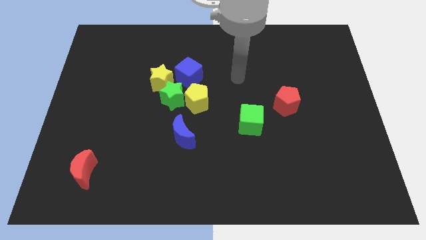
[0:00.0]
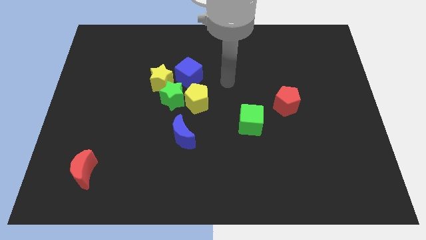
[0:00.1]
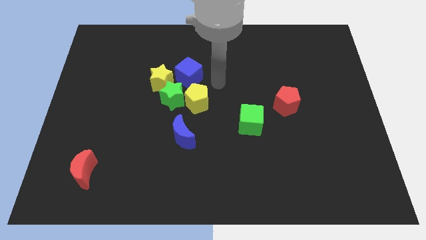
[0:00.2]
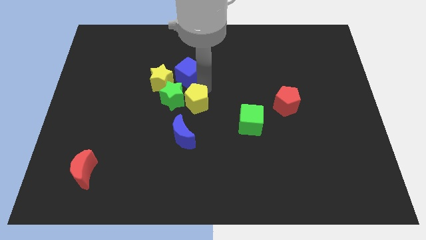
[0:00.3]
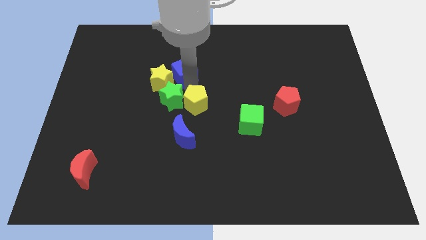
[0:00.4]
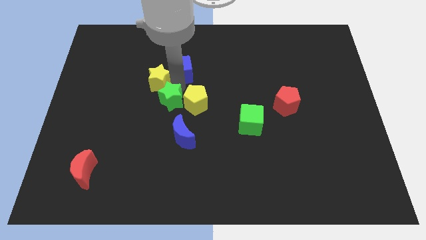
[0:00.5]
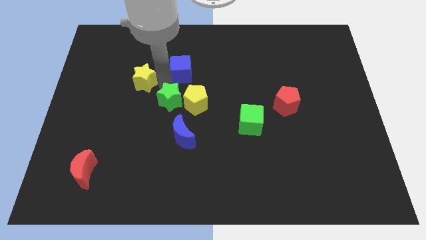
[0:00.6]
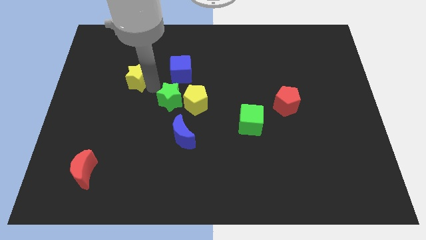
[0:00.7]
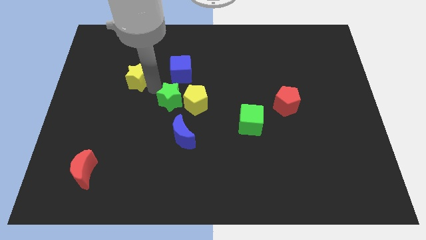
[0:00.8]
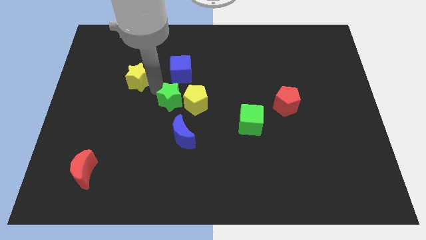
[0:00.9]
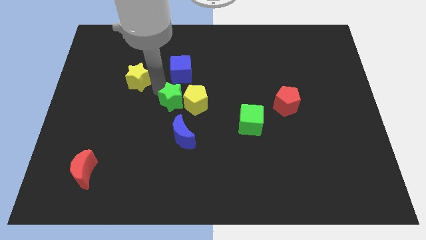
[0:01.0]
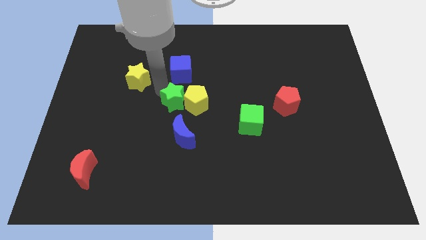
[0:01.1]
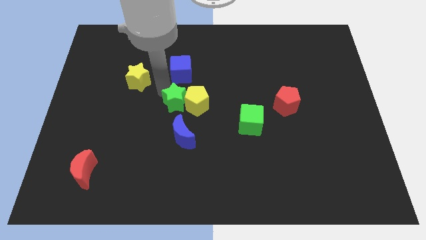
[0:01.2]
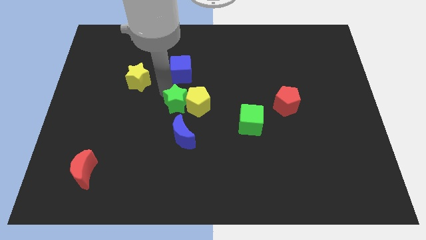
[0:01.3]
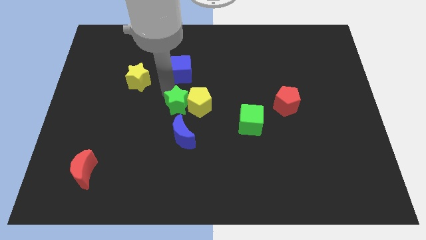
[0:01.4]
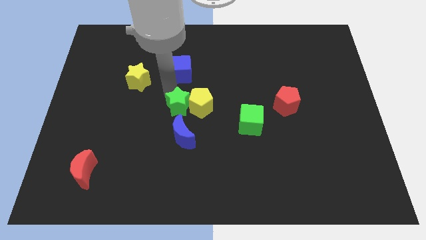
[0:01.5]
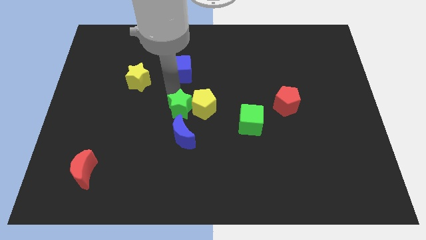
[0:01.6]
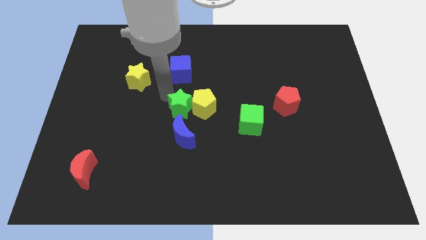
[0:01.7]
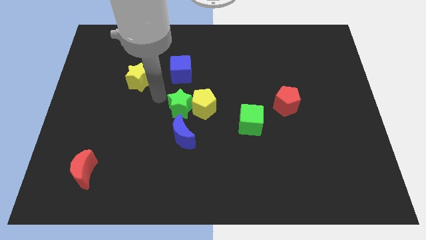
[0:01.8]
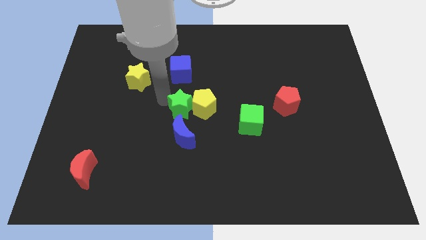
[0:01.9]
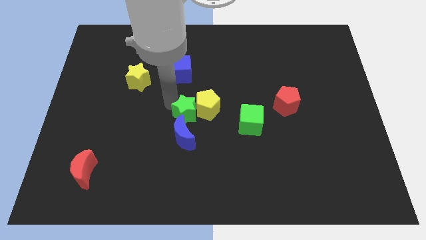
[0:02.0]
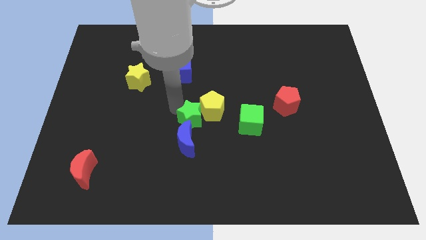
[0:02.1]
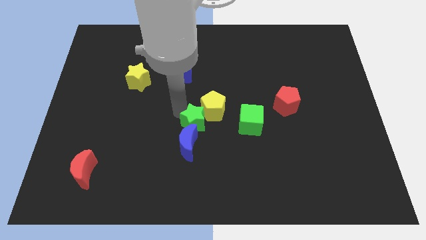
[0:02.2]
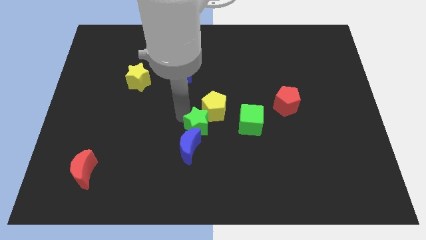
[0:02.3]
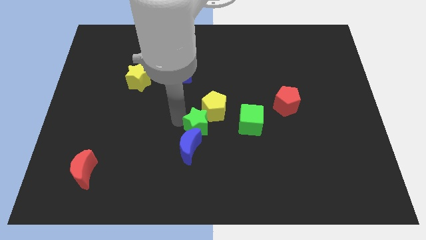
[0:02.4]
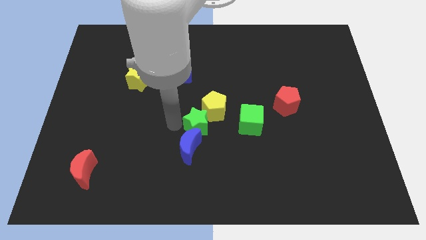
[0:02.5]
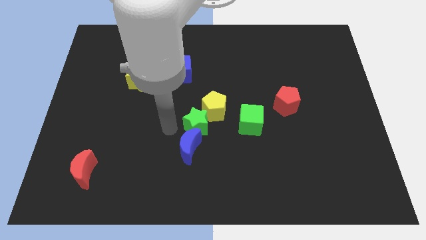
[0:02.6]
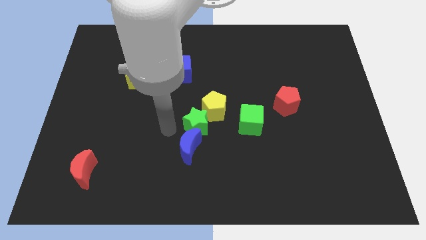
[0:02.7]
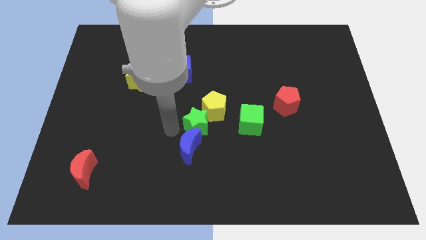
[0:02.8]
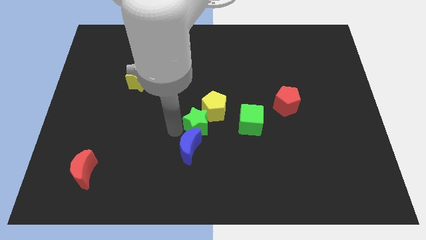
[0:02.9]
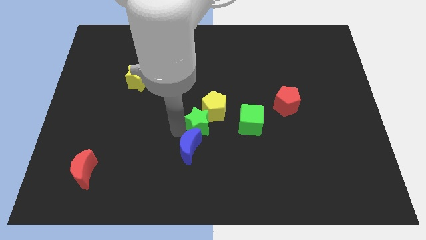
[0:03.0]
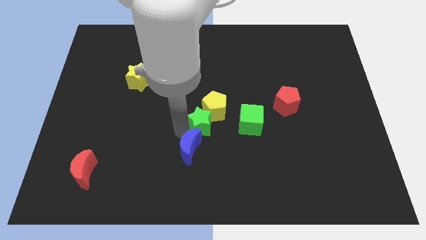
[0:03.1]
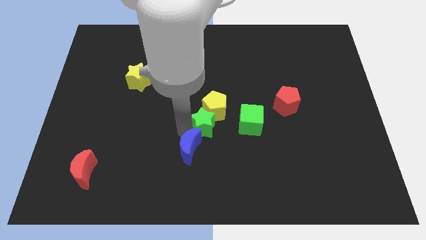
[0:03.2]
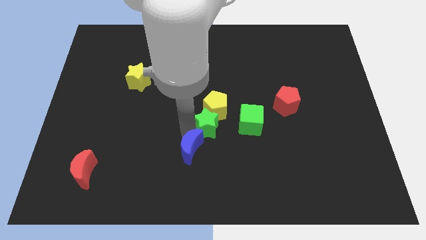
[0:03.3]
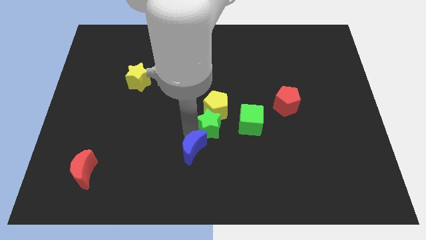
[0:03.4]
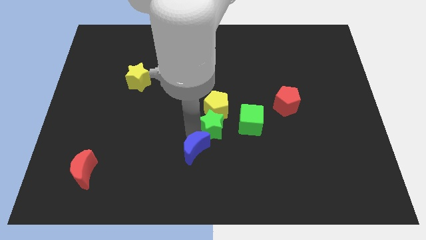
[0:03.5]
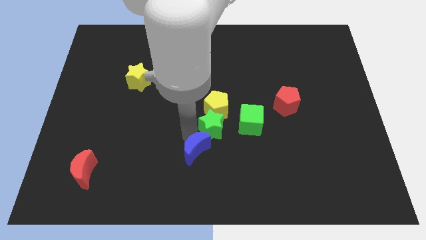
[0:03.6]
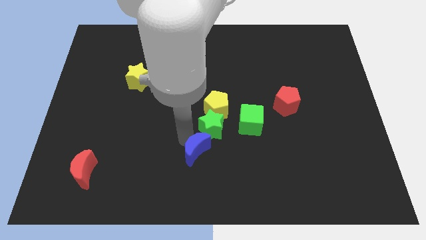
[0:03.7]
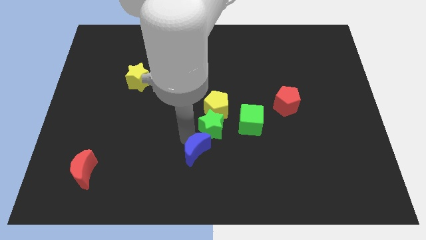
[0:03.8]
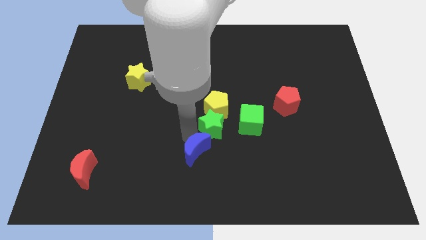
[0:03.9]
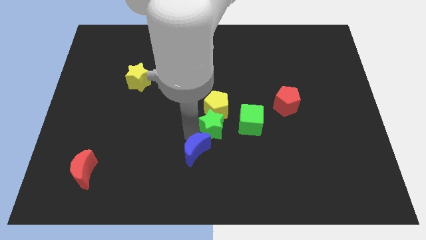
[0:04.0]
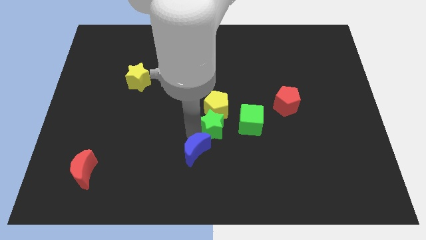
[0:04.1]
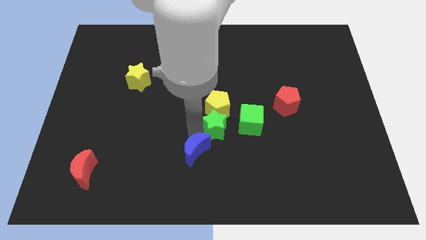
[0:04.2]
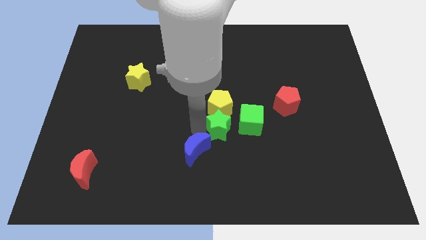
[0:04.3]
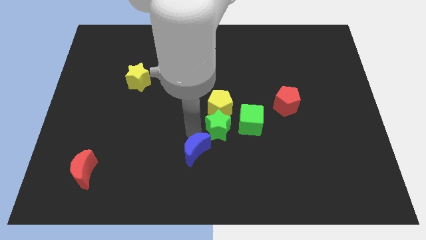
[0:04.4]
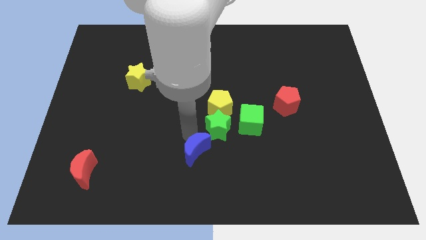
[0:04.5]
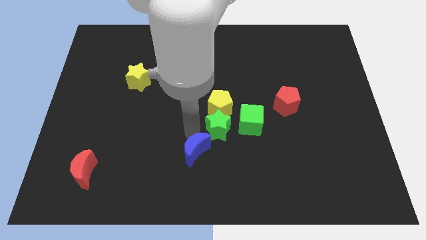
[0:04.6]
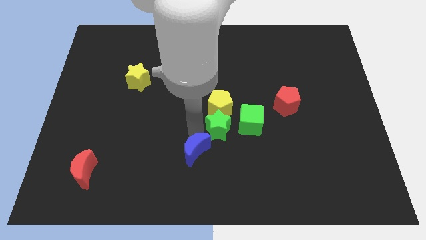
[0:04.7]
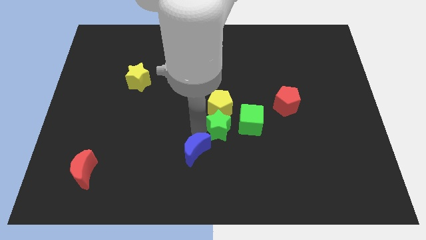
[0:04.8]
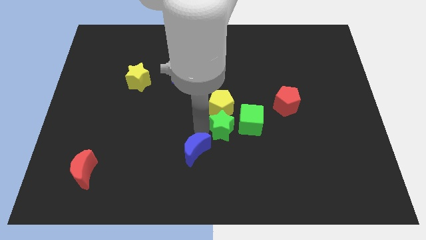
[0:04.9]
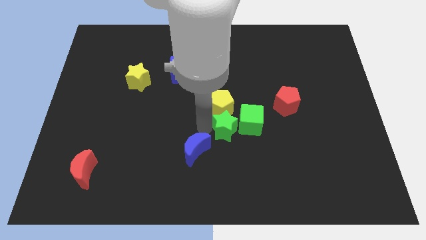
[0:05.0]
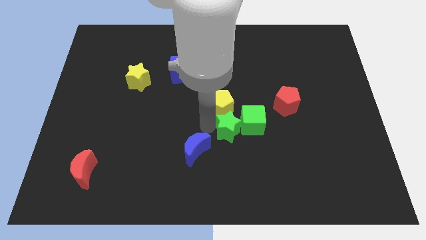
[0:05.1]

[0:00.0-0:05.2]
slide the green star towards the green cube

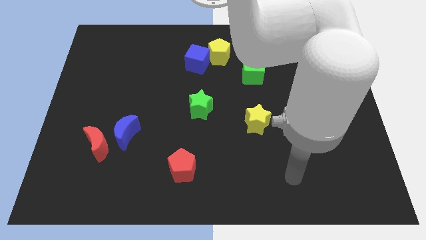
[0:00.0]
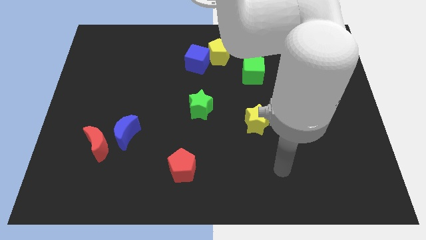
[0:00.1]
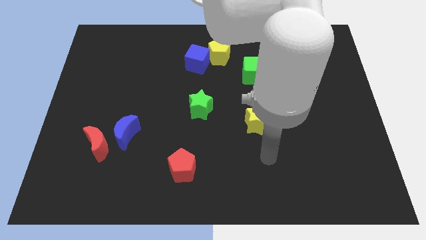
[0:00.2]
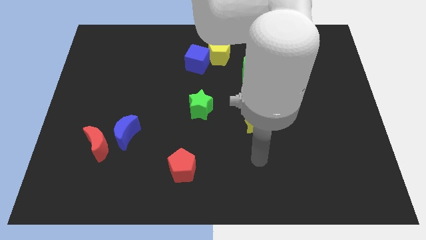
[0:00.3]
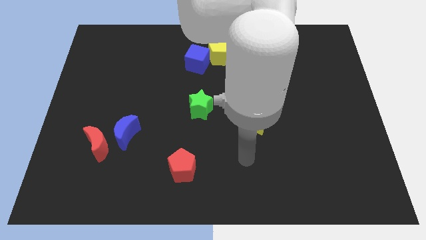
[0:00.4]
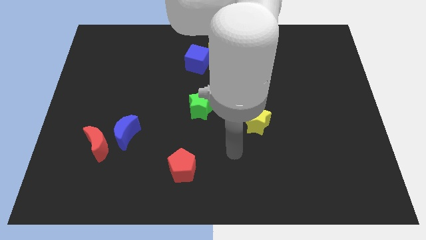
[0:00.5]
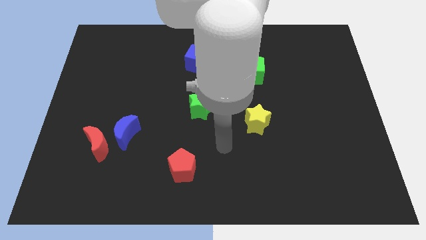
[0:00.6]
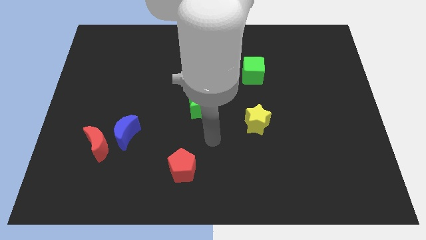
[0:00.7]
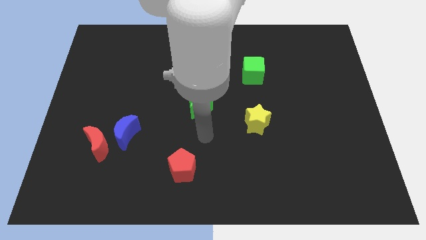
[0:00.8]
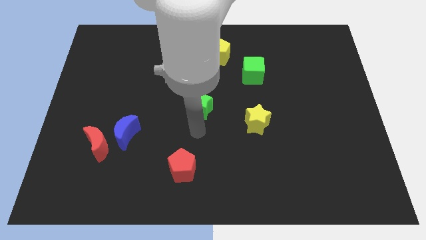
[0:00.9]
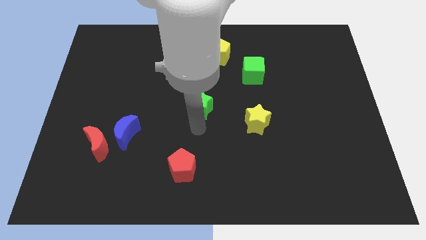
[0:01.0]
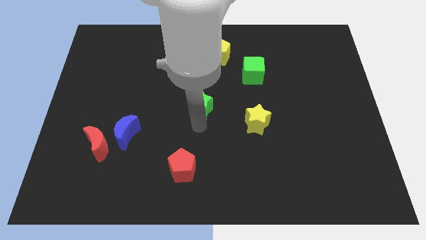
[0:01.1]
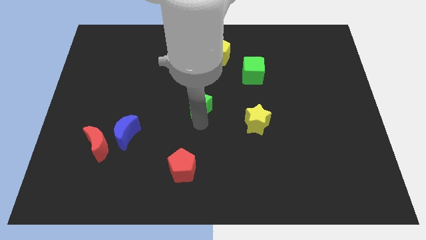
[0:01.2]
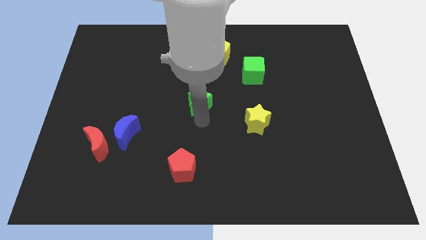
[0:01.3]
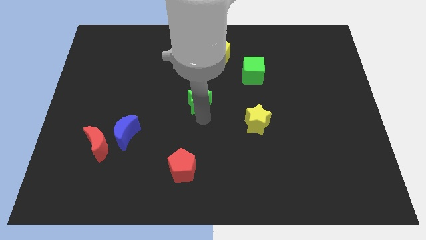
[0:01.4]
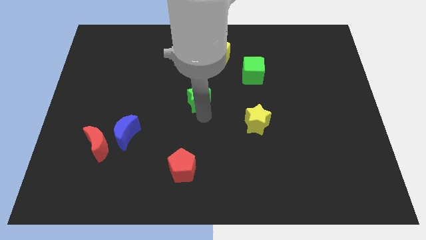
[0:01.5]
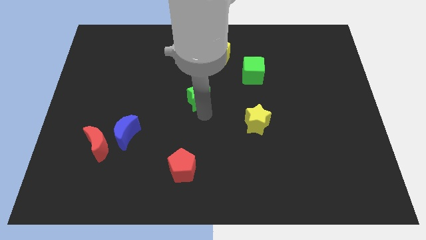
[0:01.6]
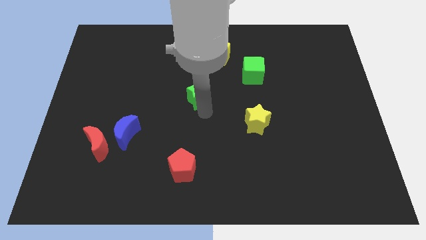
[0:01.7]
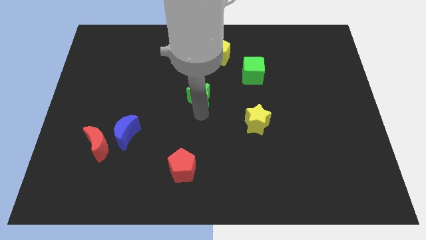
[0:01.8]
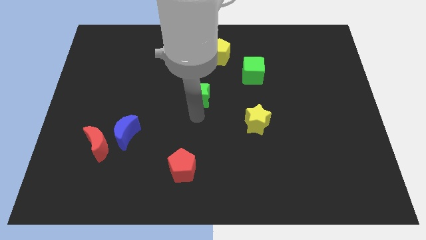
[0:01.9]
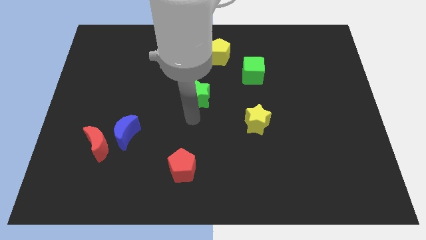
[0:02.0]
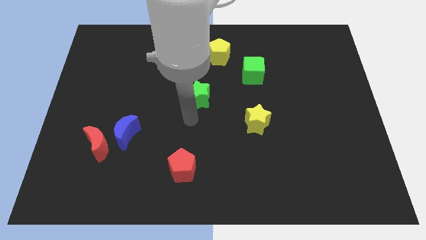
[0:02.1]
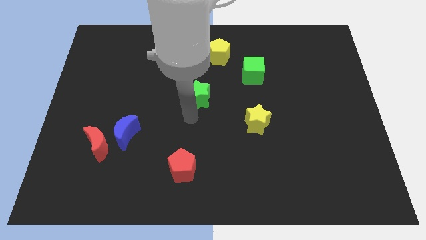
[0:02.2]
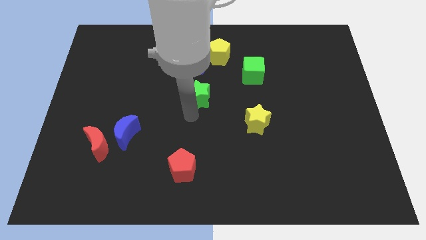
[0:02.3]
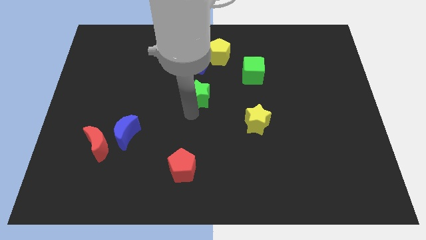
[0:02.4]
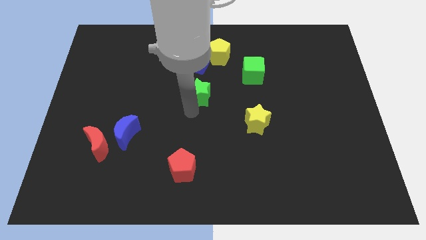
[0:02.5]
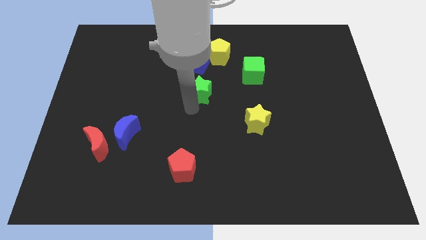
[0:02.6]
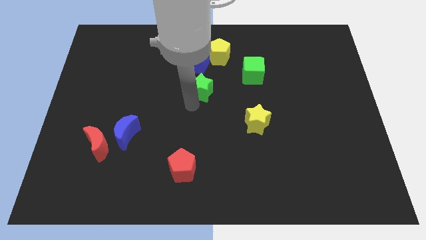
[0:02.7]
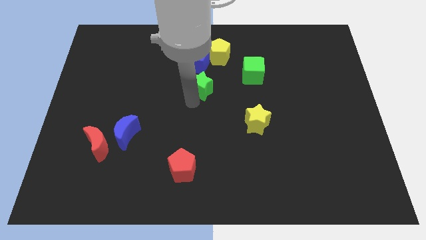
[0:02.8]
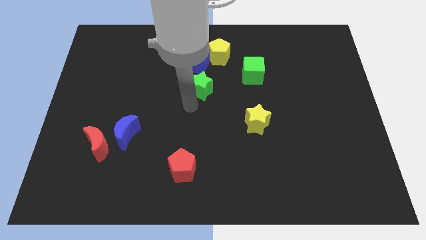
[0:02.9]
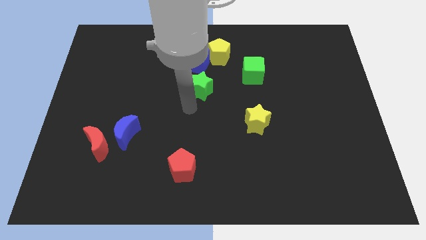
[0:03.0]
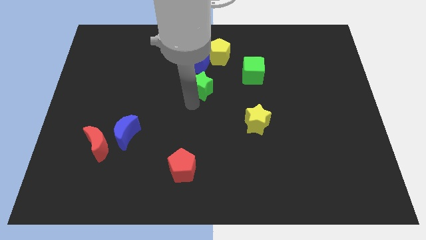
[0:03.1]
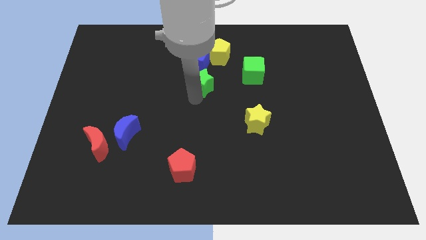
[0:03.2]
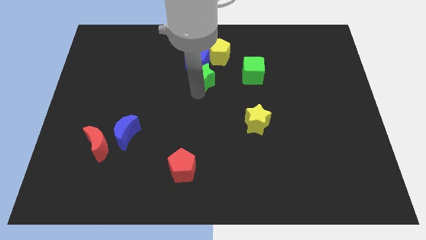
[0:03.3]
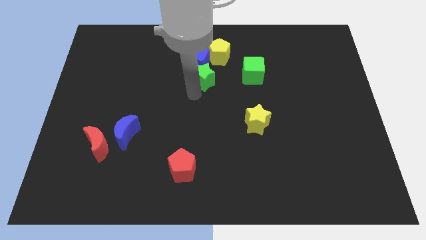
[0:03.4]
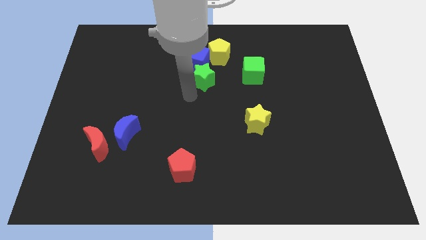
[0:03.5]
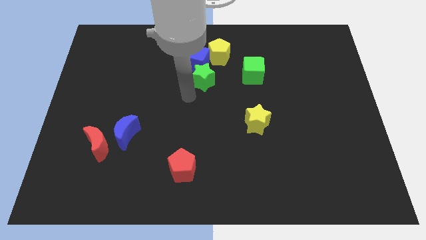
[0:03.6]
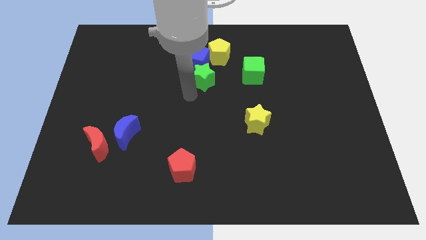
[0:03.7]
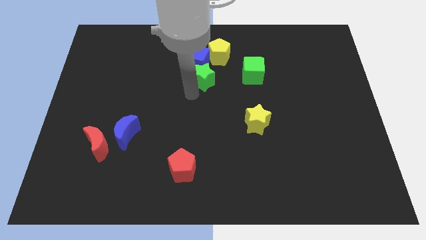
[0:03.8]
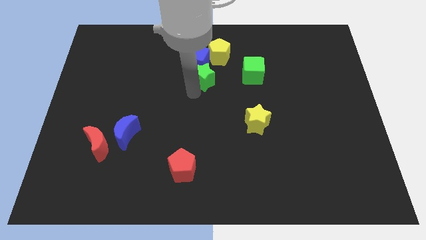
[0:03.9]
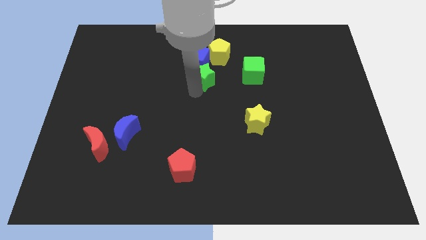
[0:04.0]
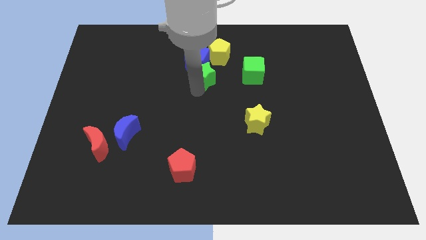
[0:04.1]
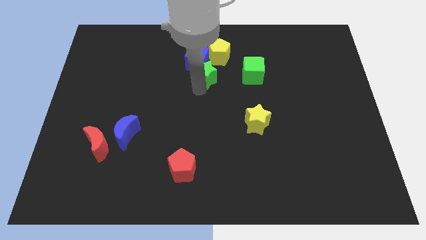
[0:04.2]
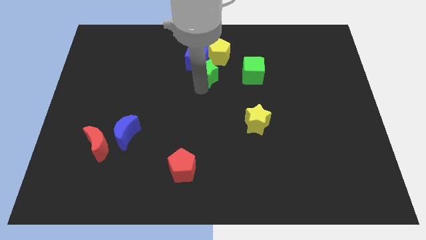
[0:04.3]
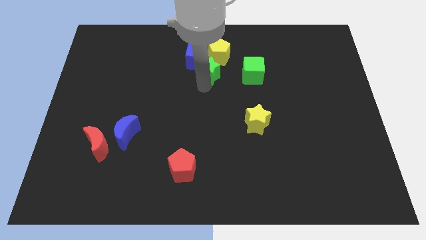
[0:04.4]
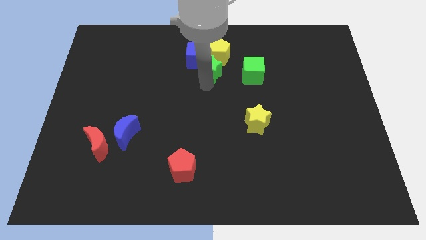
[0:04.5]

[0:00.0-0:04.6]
slide the green star to the yellow pentagon
